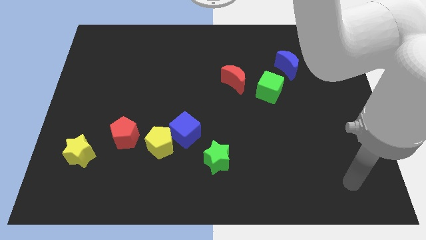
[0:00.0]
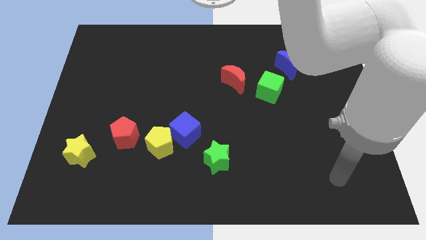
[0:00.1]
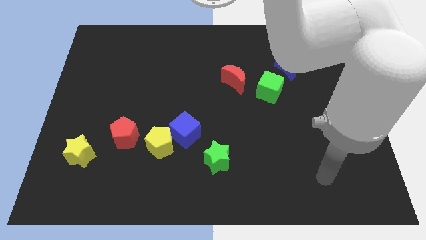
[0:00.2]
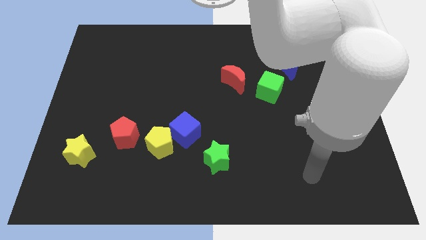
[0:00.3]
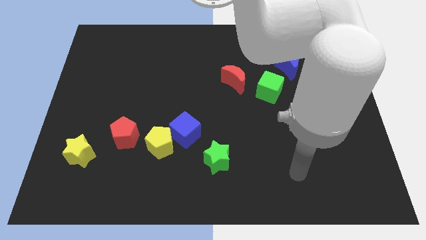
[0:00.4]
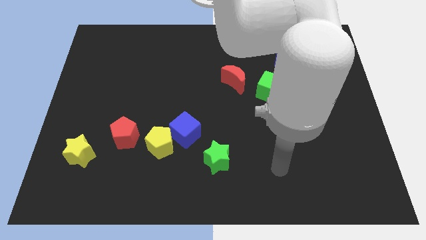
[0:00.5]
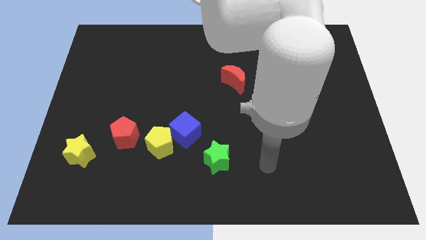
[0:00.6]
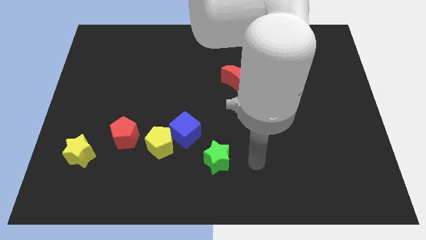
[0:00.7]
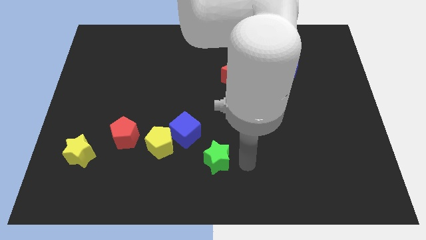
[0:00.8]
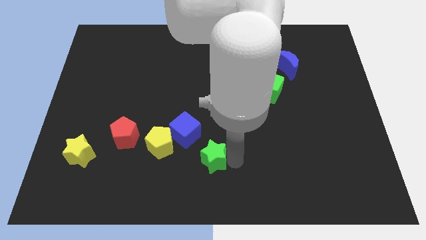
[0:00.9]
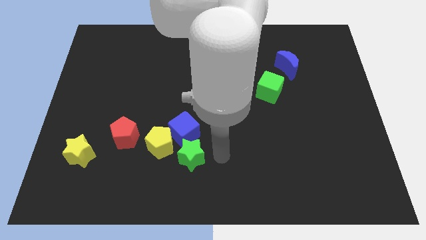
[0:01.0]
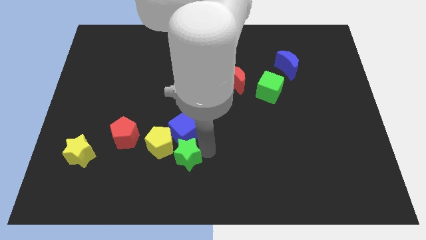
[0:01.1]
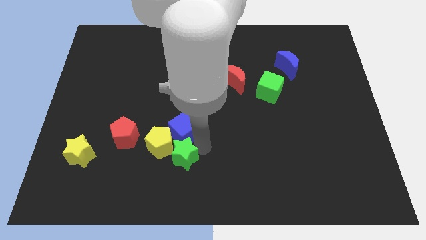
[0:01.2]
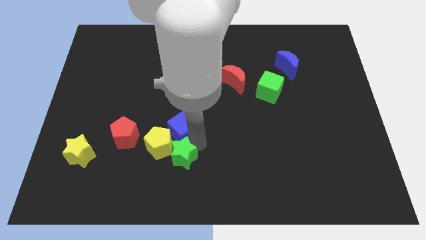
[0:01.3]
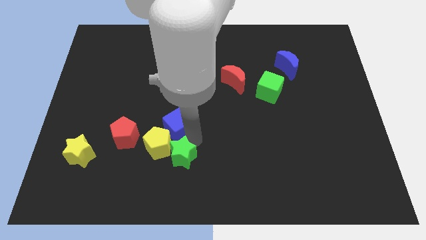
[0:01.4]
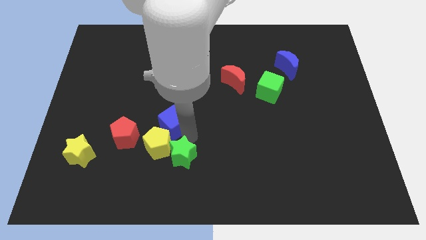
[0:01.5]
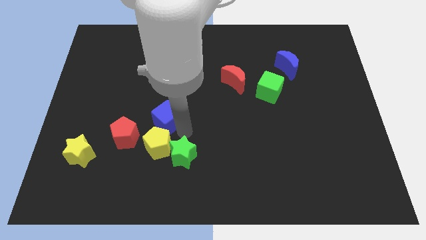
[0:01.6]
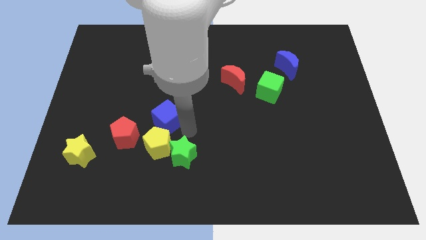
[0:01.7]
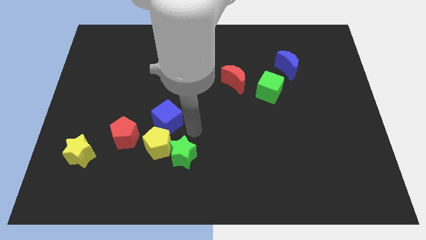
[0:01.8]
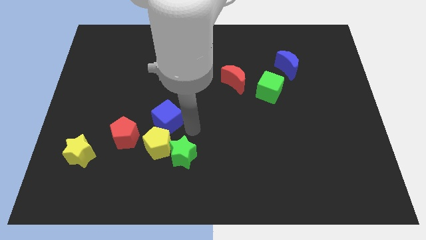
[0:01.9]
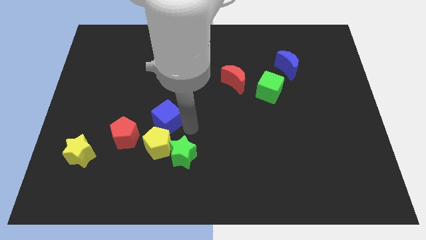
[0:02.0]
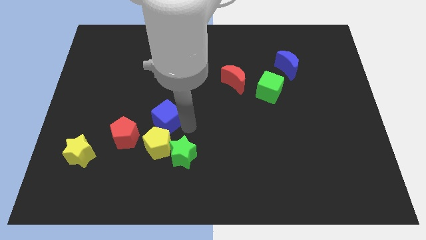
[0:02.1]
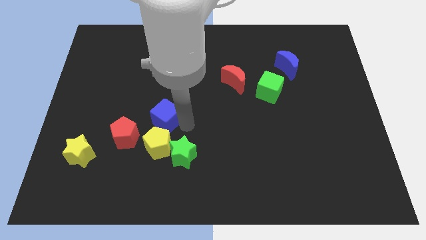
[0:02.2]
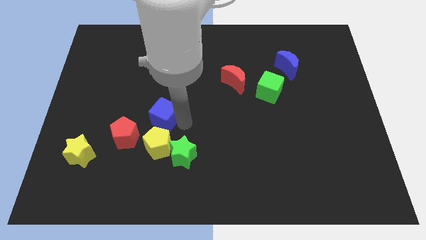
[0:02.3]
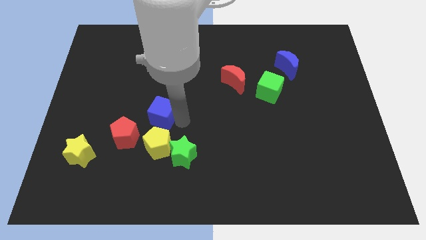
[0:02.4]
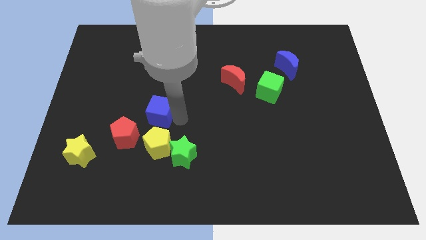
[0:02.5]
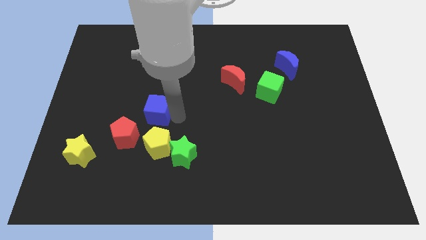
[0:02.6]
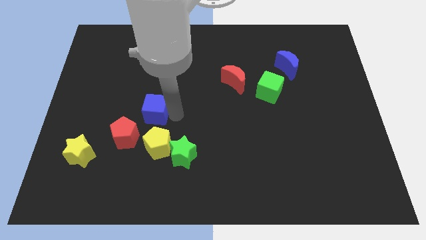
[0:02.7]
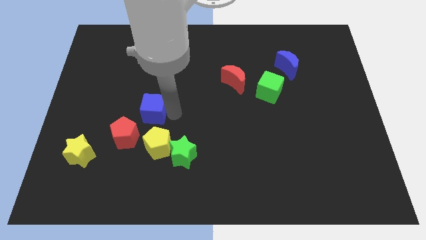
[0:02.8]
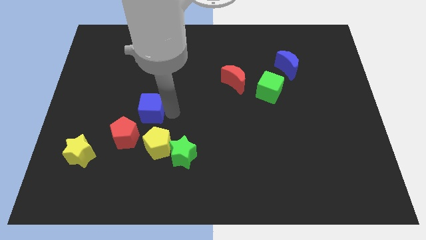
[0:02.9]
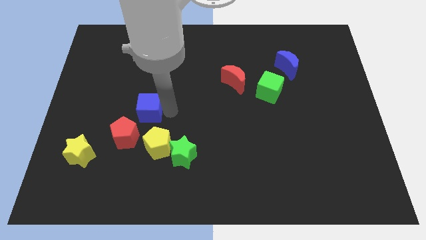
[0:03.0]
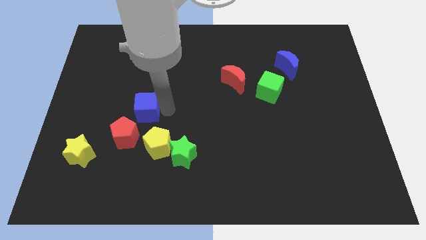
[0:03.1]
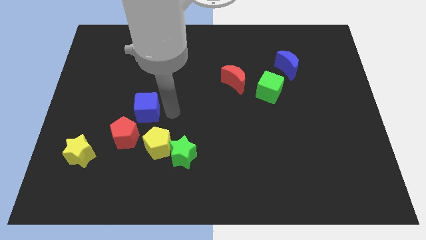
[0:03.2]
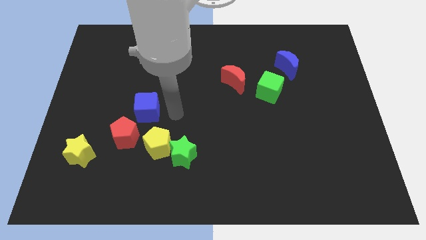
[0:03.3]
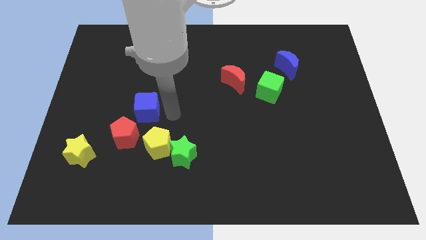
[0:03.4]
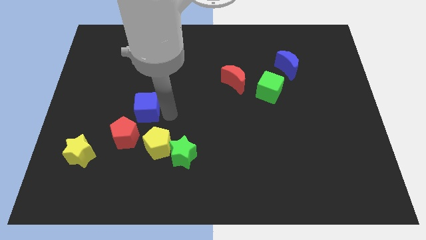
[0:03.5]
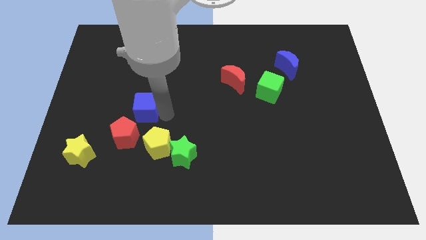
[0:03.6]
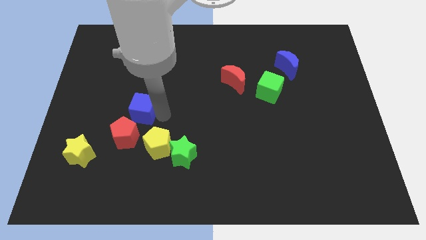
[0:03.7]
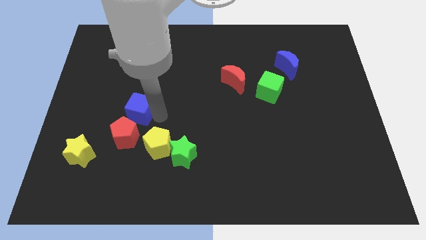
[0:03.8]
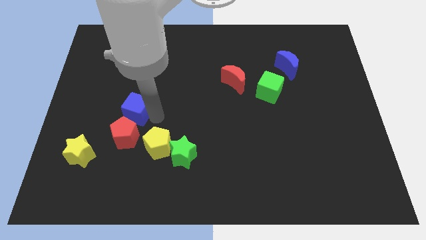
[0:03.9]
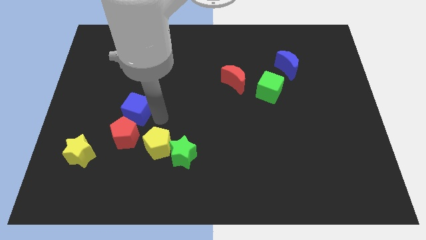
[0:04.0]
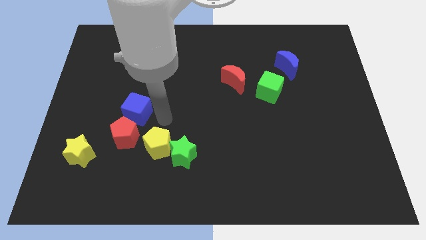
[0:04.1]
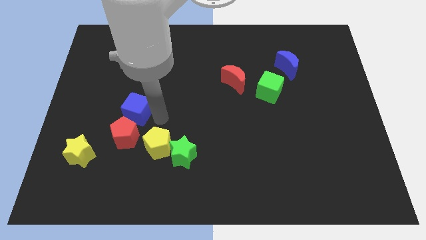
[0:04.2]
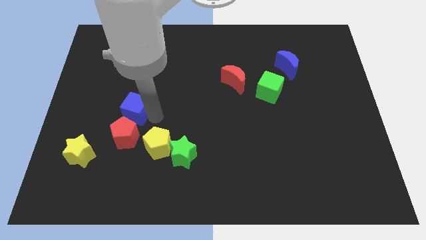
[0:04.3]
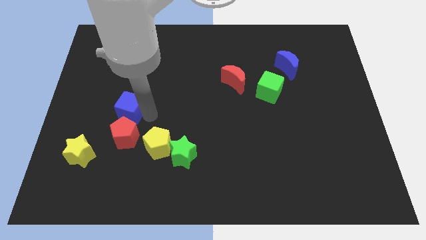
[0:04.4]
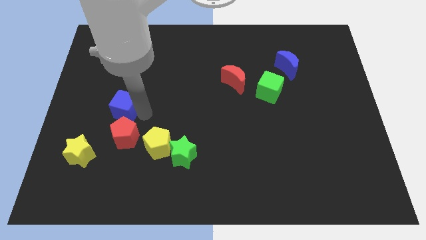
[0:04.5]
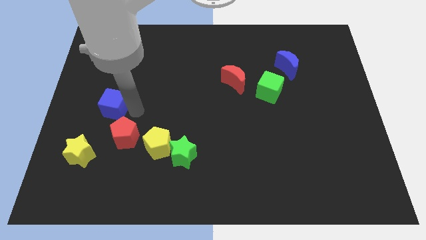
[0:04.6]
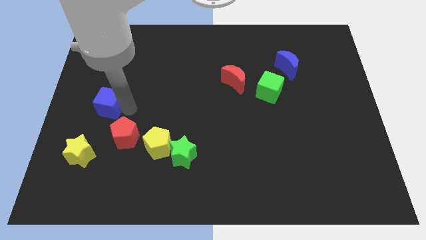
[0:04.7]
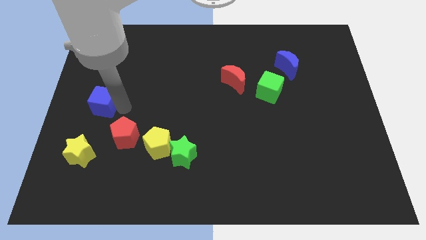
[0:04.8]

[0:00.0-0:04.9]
slide the blue cube to the left side of the board

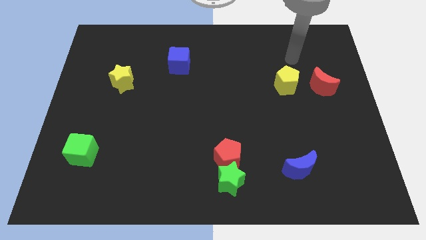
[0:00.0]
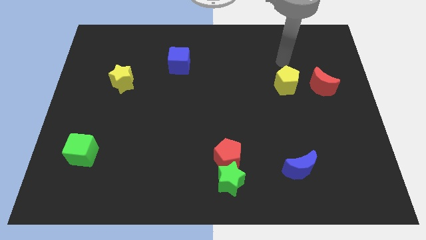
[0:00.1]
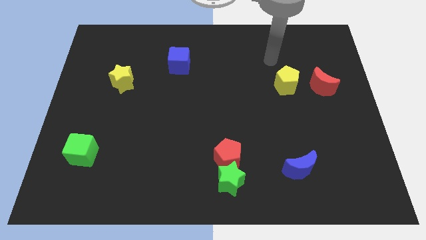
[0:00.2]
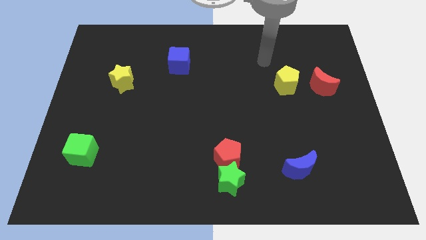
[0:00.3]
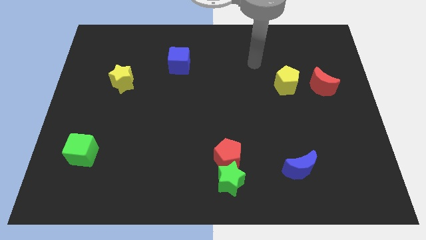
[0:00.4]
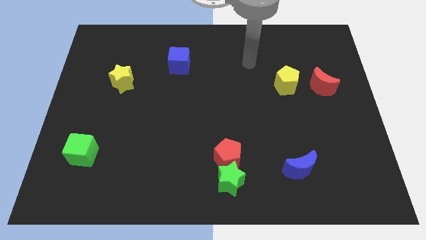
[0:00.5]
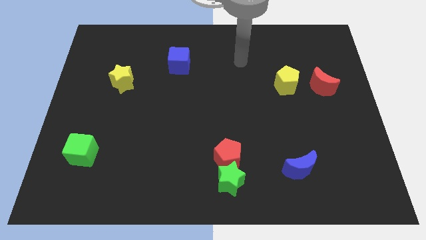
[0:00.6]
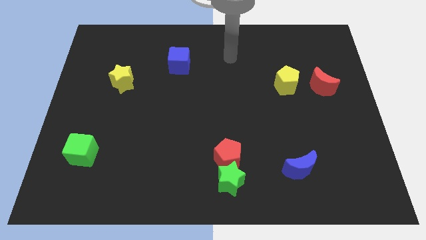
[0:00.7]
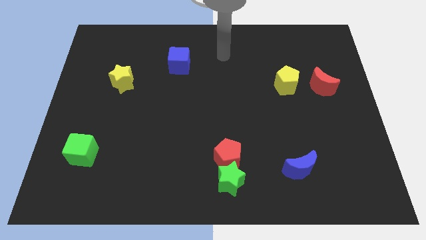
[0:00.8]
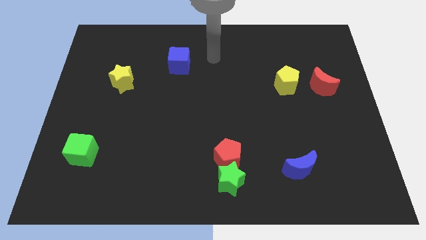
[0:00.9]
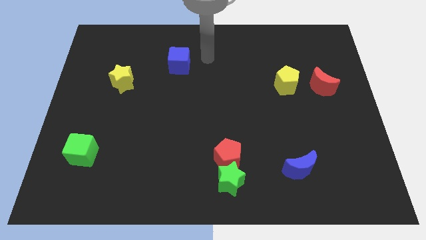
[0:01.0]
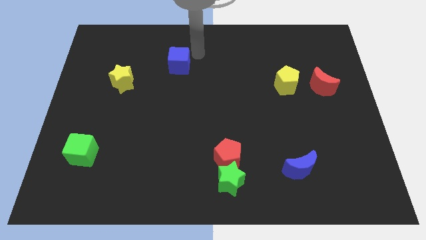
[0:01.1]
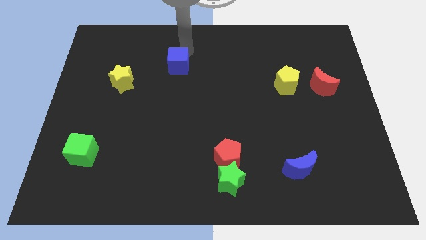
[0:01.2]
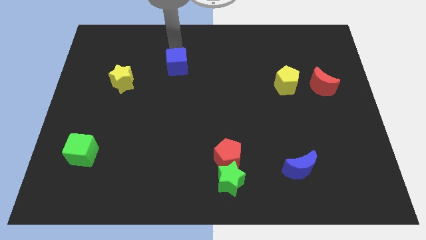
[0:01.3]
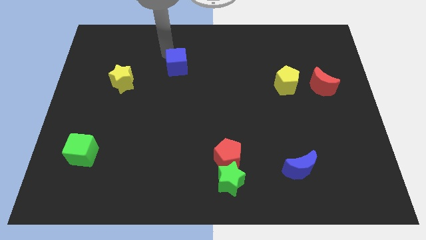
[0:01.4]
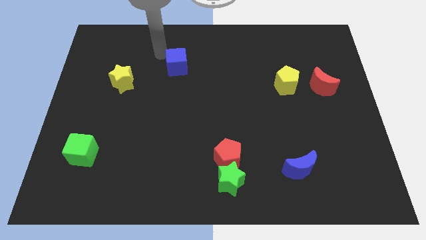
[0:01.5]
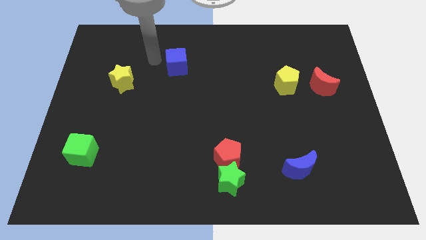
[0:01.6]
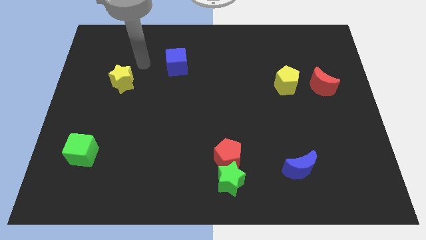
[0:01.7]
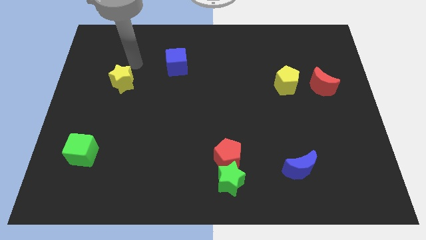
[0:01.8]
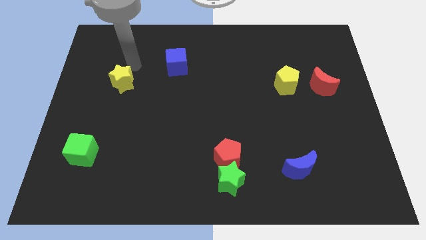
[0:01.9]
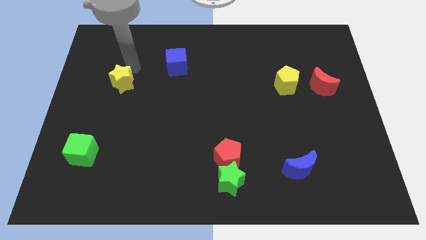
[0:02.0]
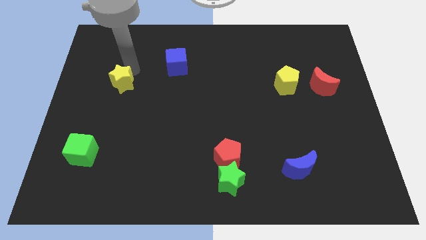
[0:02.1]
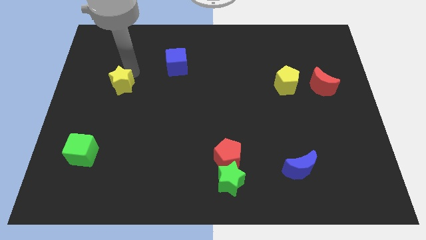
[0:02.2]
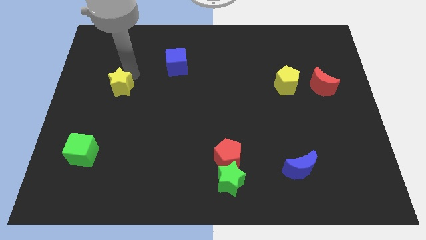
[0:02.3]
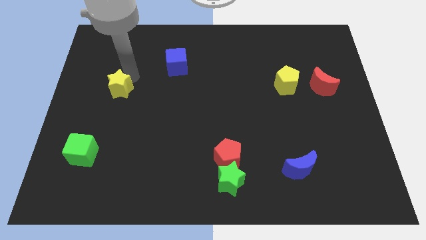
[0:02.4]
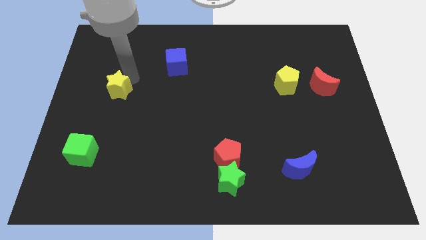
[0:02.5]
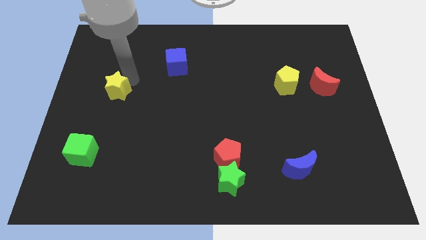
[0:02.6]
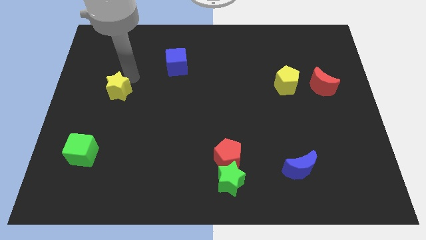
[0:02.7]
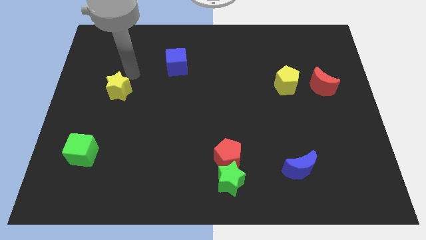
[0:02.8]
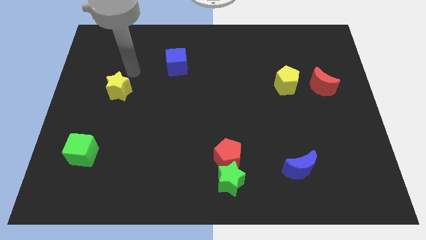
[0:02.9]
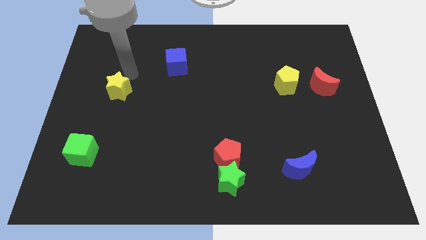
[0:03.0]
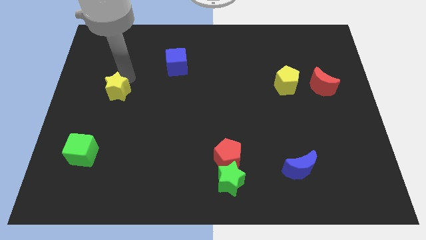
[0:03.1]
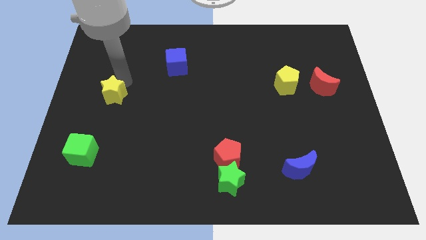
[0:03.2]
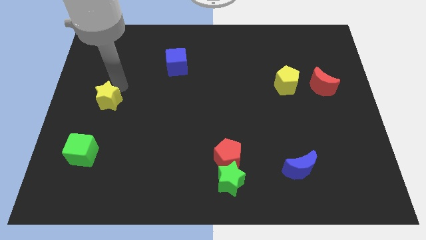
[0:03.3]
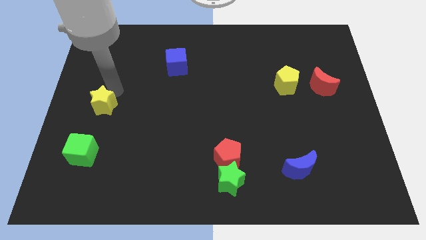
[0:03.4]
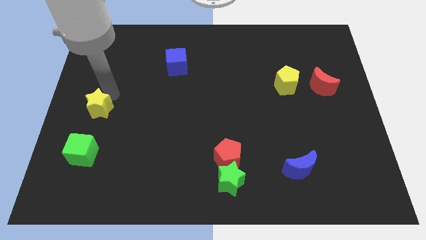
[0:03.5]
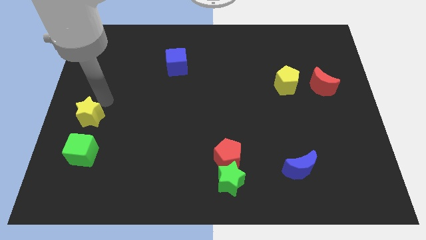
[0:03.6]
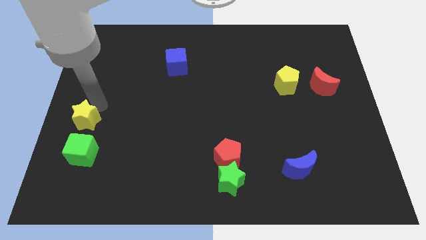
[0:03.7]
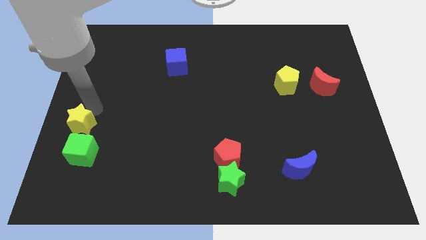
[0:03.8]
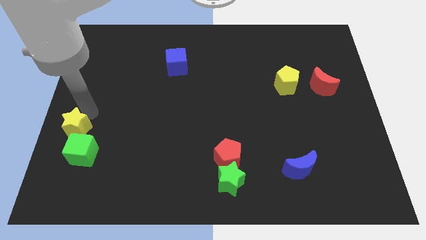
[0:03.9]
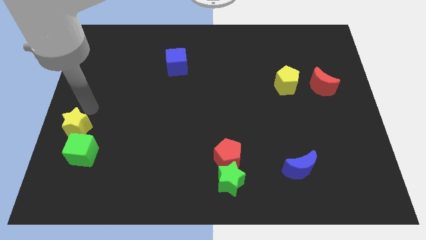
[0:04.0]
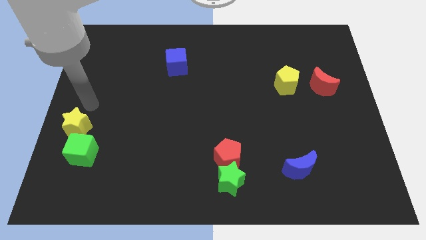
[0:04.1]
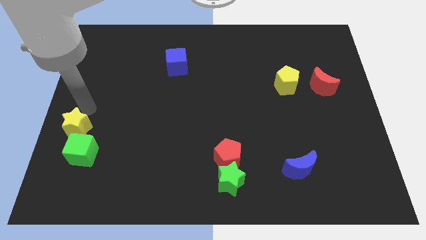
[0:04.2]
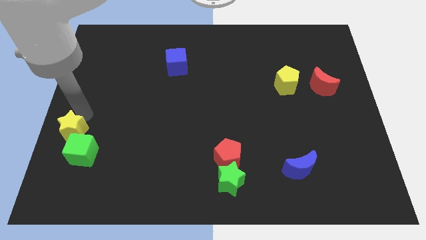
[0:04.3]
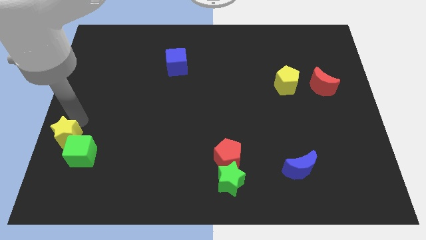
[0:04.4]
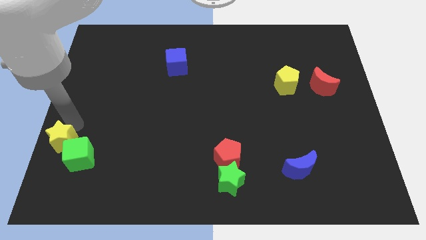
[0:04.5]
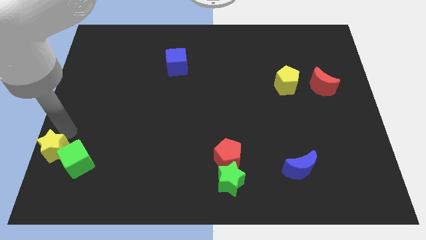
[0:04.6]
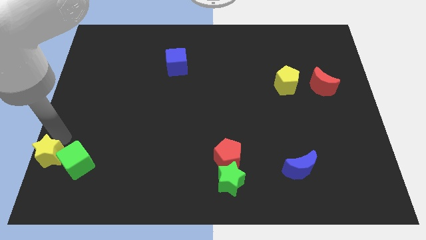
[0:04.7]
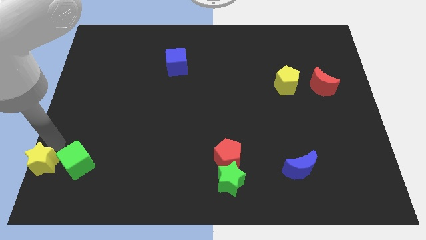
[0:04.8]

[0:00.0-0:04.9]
slide the yellow star to the bottom left
